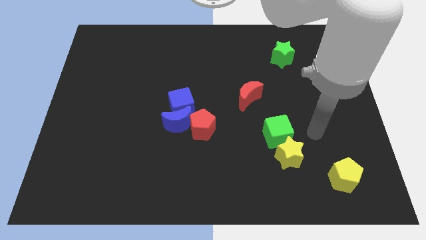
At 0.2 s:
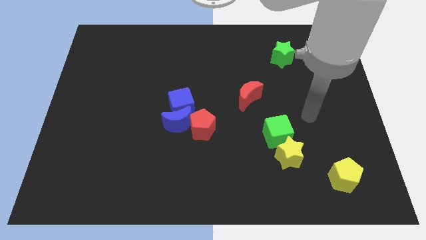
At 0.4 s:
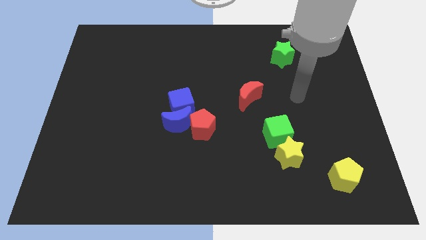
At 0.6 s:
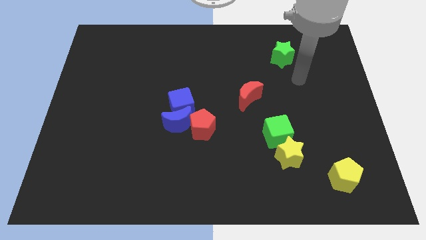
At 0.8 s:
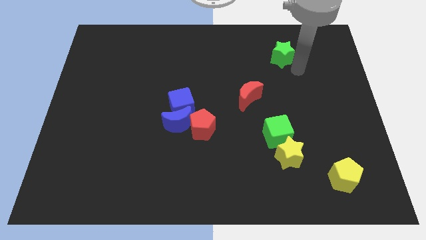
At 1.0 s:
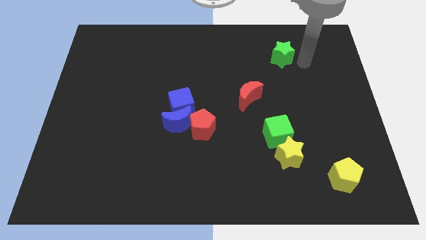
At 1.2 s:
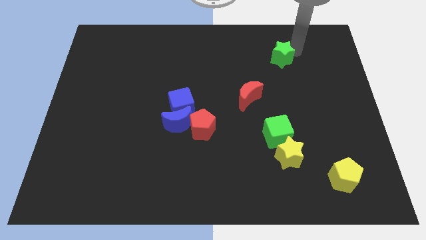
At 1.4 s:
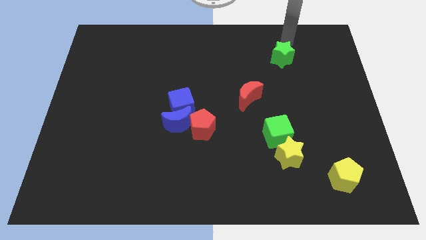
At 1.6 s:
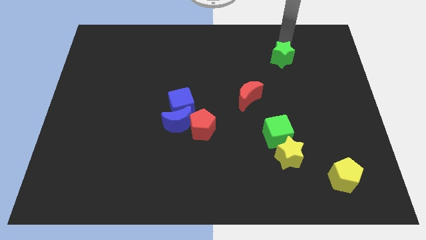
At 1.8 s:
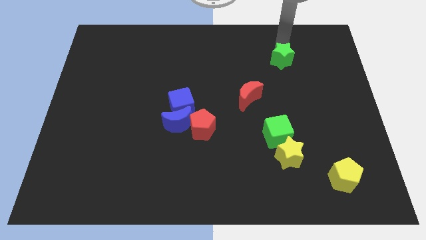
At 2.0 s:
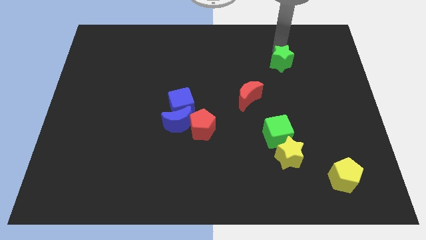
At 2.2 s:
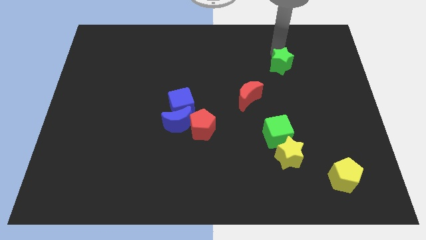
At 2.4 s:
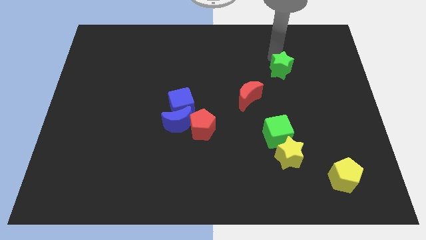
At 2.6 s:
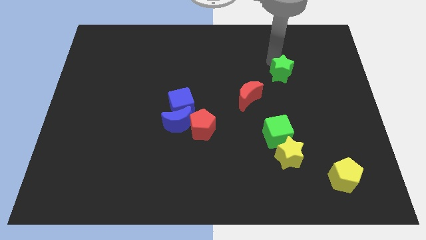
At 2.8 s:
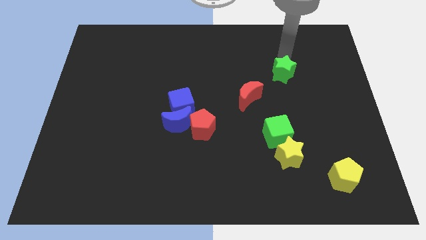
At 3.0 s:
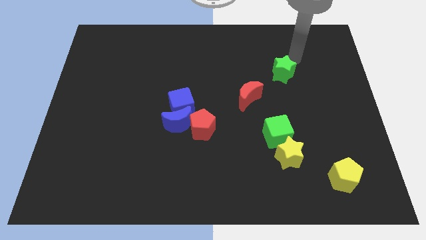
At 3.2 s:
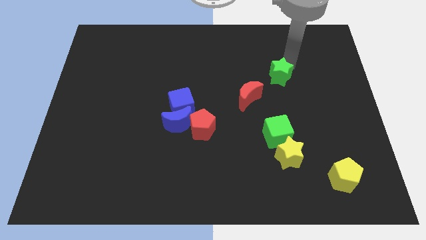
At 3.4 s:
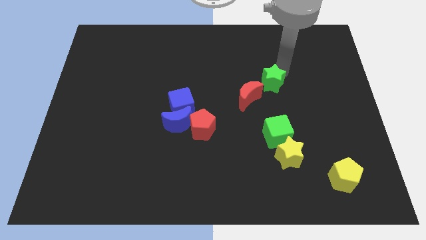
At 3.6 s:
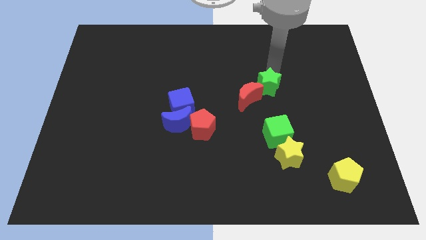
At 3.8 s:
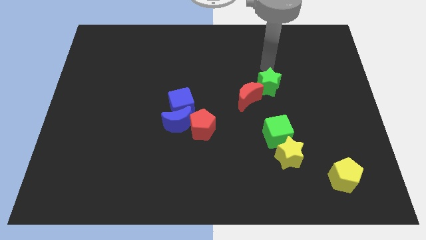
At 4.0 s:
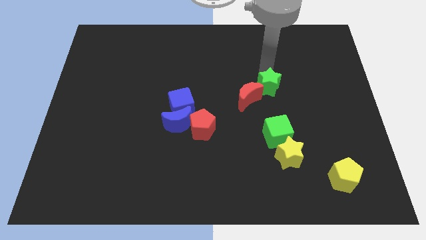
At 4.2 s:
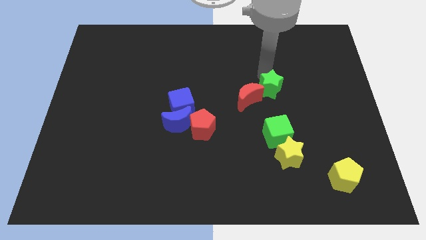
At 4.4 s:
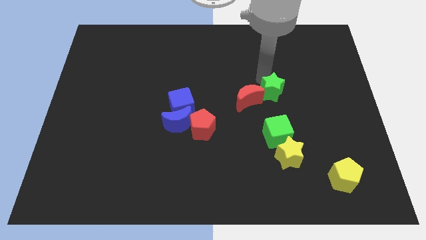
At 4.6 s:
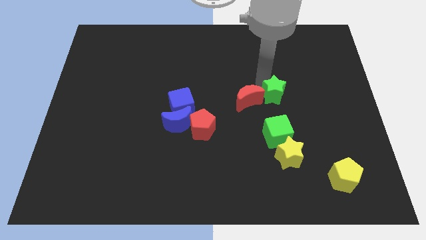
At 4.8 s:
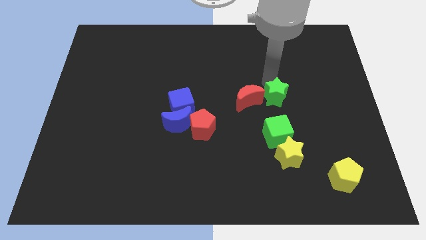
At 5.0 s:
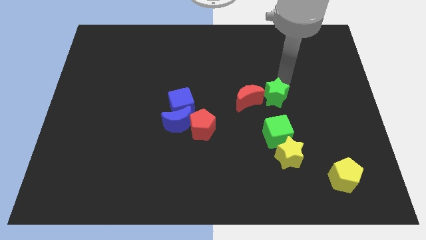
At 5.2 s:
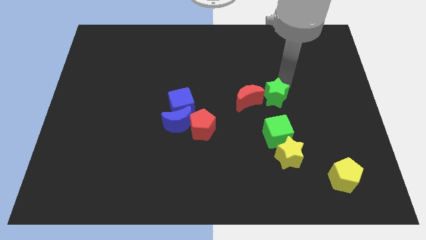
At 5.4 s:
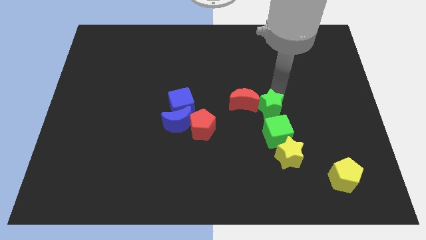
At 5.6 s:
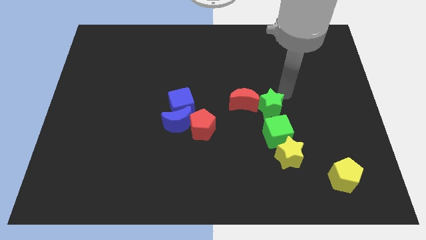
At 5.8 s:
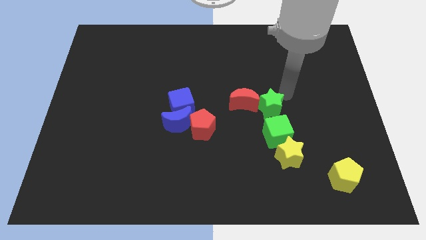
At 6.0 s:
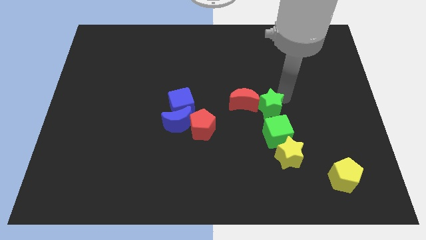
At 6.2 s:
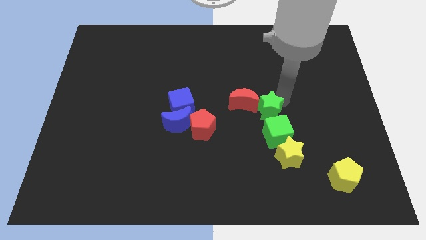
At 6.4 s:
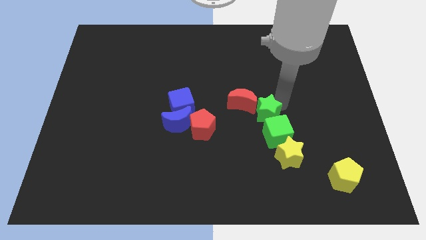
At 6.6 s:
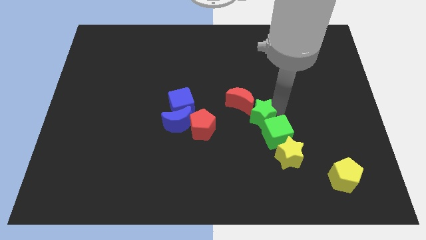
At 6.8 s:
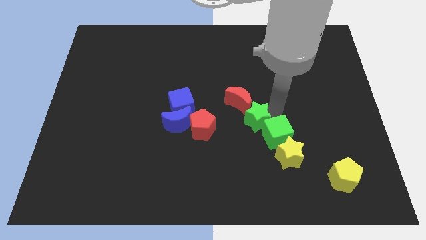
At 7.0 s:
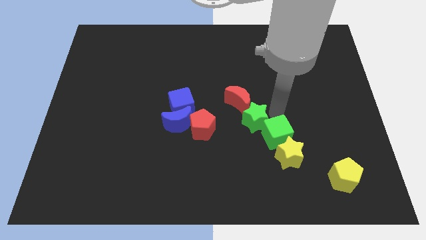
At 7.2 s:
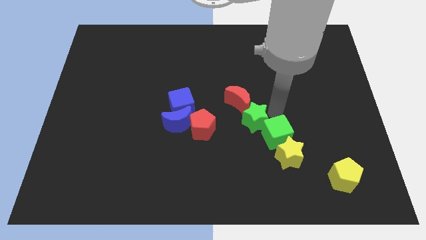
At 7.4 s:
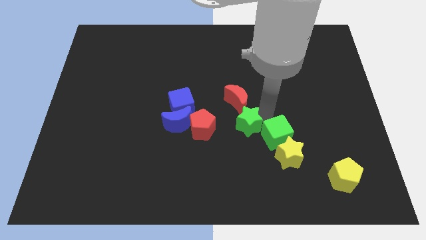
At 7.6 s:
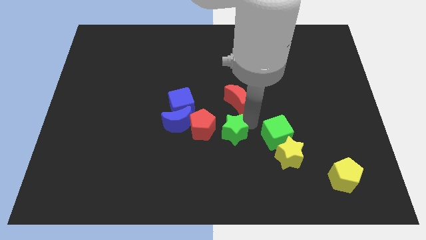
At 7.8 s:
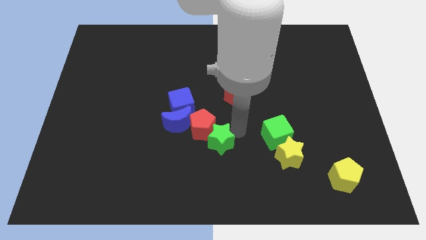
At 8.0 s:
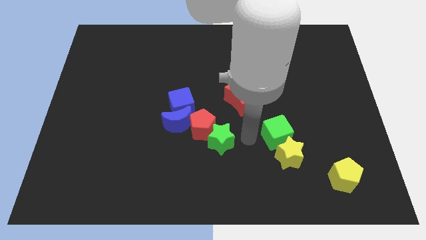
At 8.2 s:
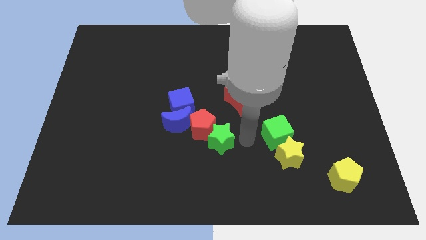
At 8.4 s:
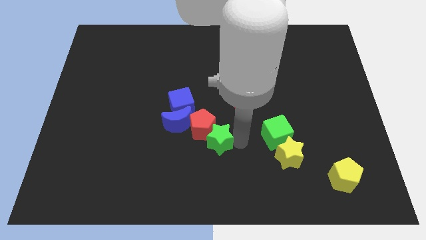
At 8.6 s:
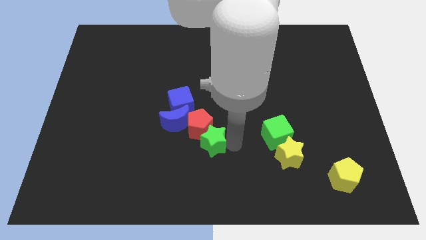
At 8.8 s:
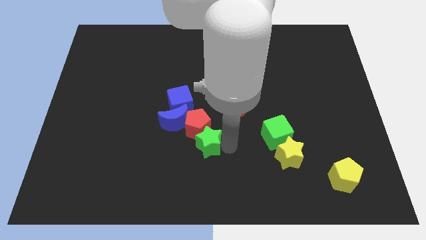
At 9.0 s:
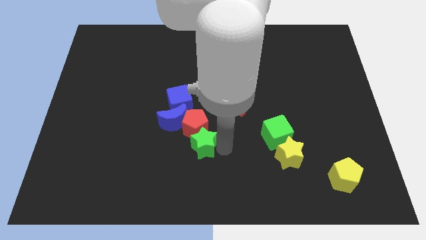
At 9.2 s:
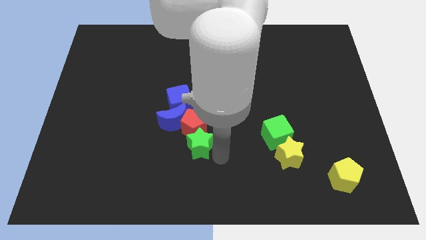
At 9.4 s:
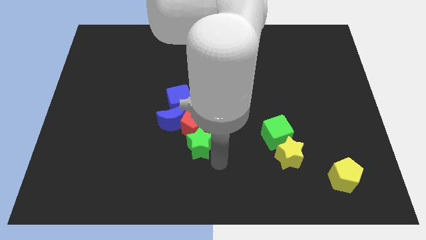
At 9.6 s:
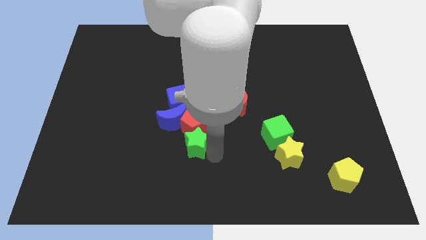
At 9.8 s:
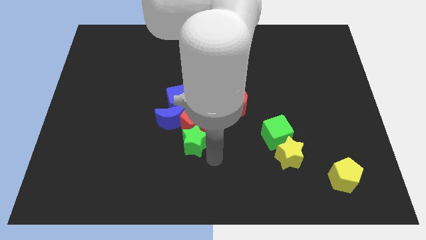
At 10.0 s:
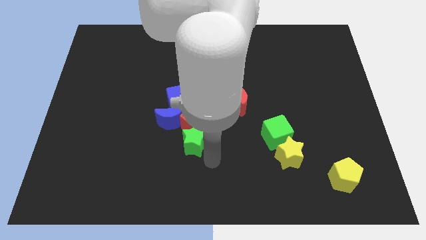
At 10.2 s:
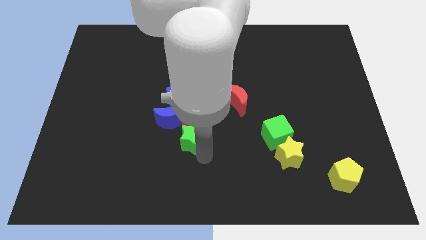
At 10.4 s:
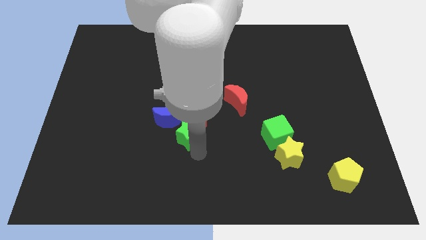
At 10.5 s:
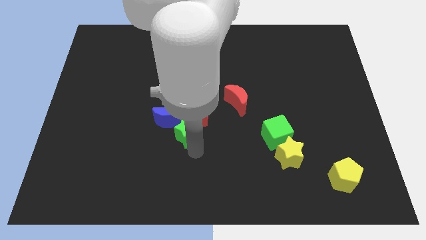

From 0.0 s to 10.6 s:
push the green star next to the blue moon

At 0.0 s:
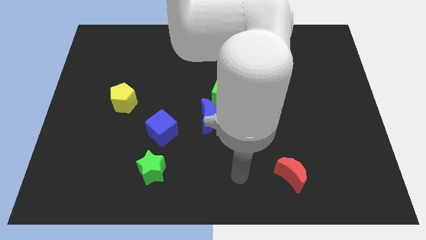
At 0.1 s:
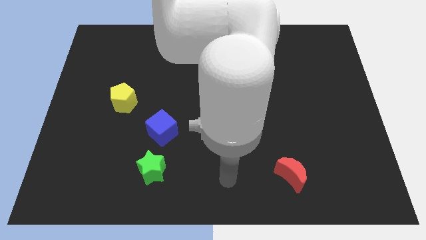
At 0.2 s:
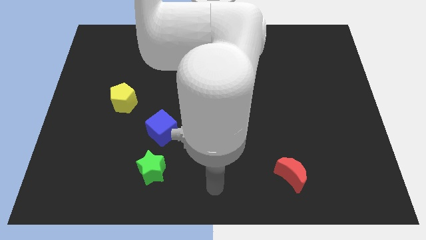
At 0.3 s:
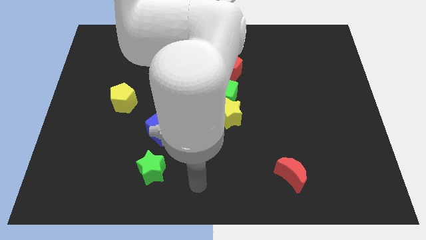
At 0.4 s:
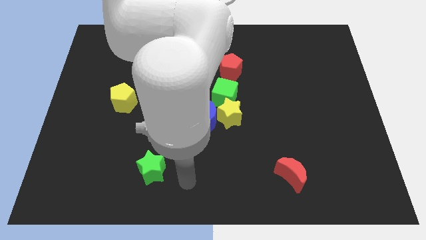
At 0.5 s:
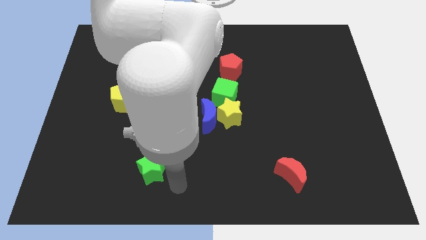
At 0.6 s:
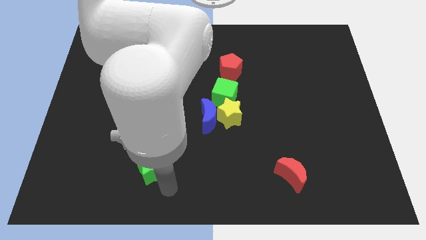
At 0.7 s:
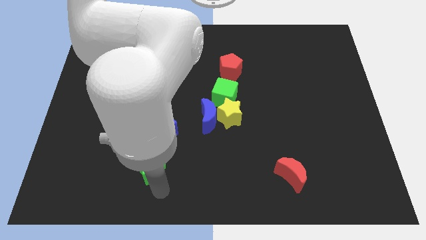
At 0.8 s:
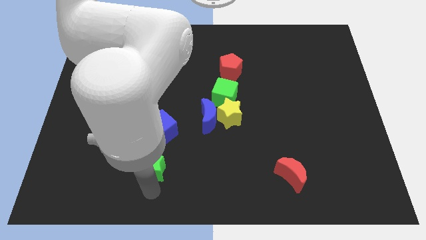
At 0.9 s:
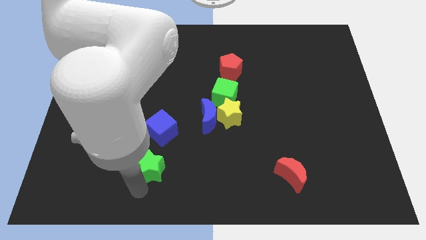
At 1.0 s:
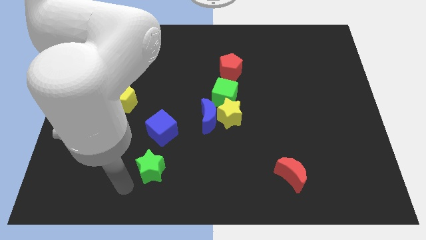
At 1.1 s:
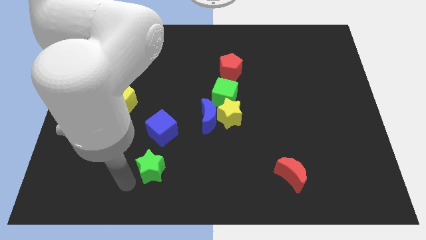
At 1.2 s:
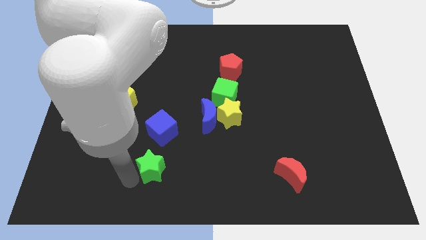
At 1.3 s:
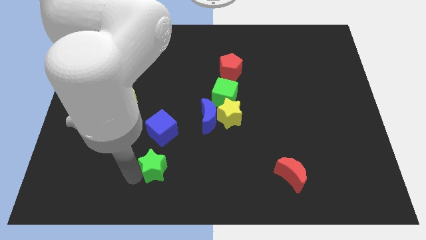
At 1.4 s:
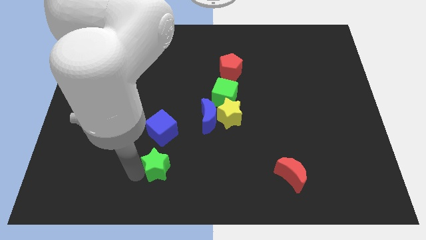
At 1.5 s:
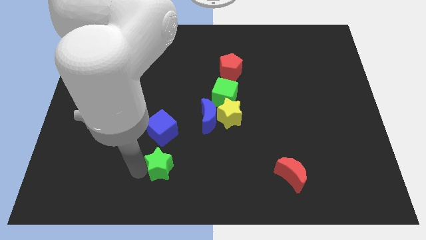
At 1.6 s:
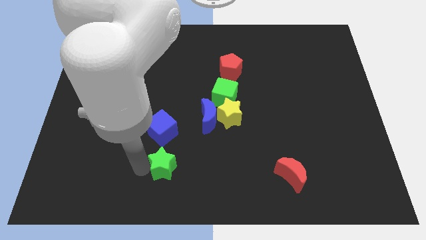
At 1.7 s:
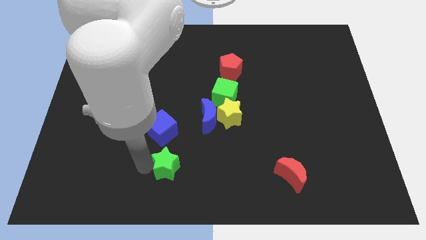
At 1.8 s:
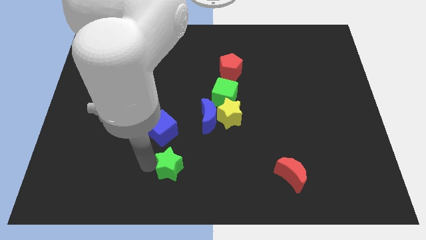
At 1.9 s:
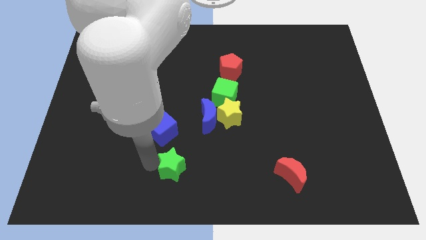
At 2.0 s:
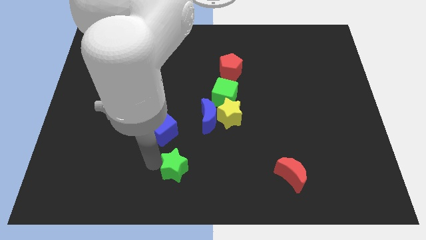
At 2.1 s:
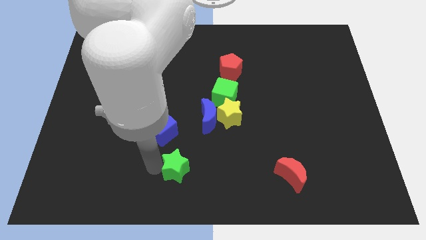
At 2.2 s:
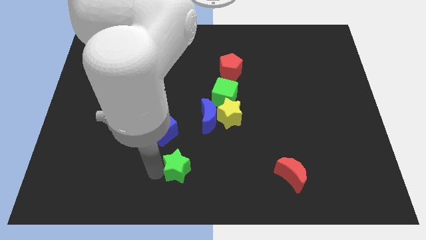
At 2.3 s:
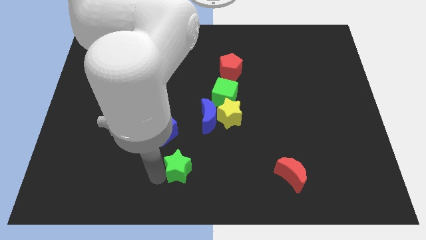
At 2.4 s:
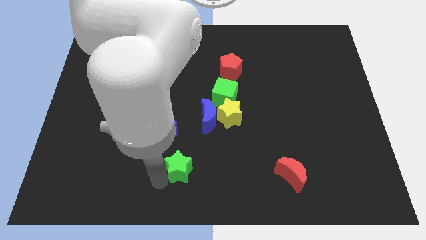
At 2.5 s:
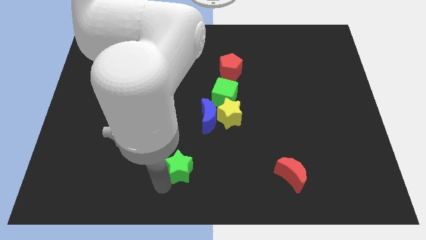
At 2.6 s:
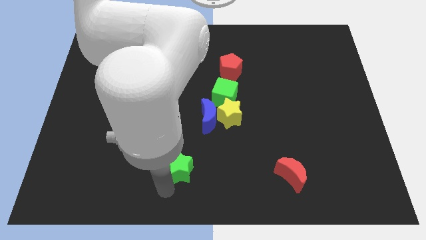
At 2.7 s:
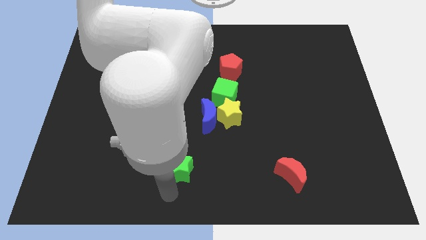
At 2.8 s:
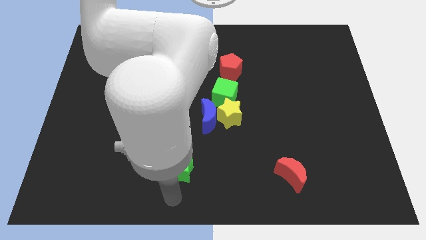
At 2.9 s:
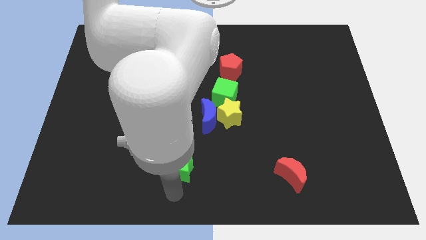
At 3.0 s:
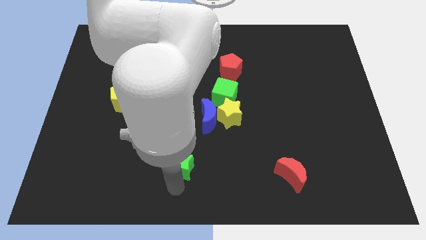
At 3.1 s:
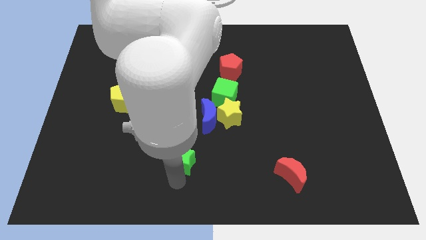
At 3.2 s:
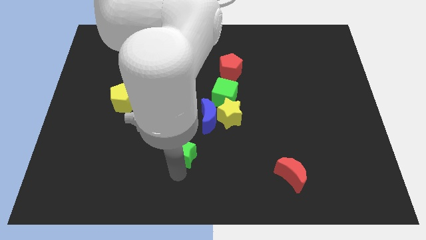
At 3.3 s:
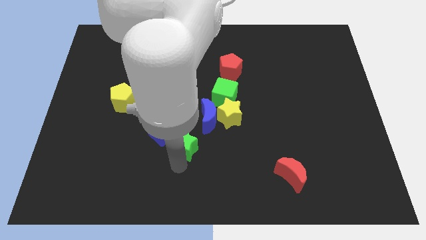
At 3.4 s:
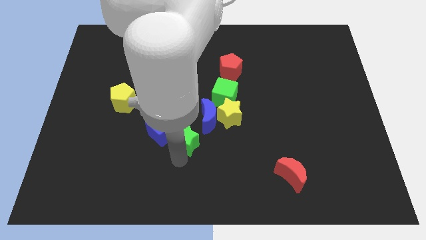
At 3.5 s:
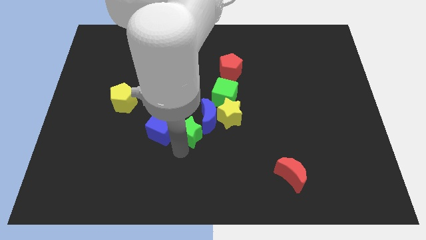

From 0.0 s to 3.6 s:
put the green star close to the blue moon
